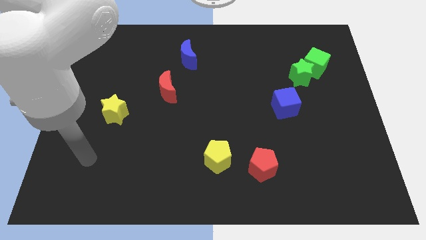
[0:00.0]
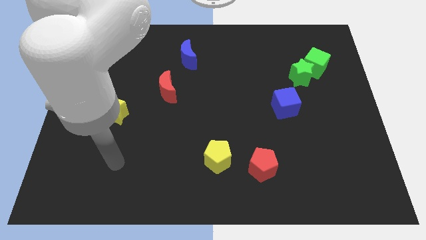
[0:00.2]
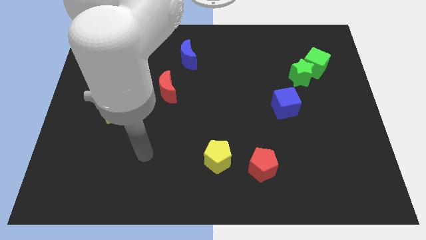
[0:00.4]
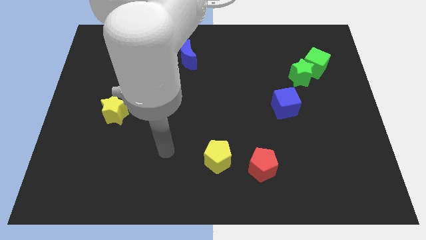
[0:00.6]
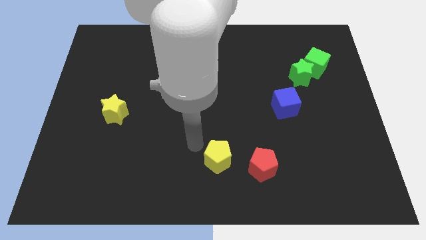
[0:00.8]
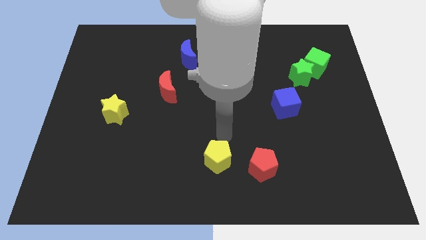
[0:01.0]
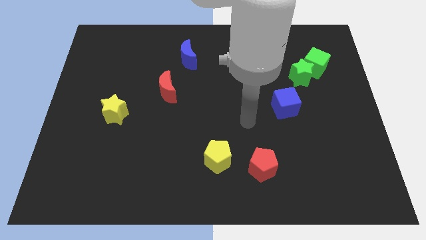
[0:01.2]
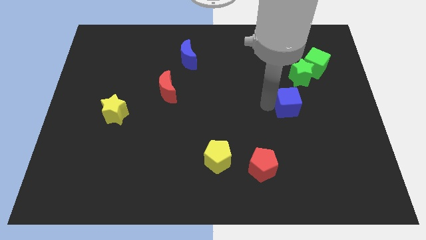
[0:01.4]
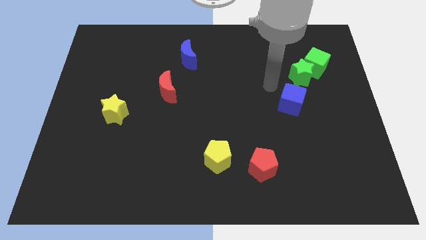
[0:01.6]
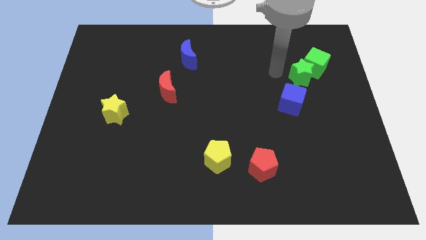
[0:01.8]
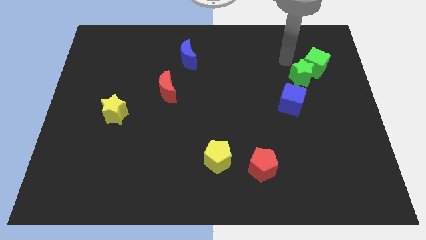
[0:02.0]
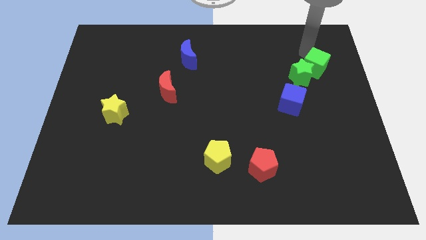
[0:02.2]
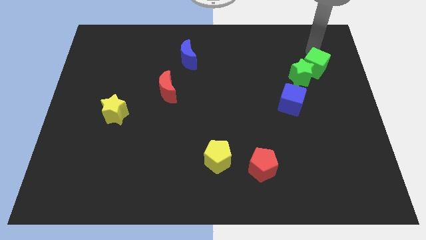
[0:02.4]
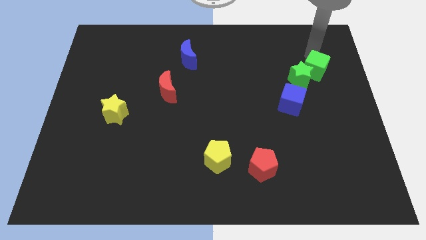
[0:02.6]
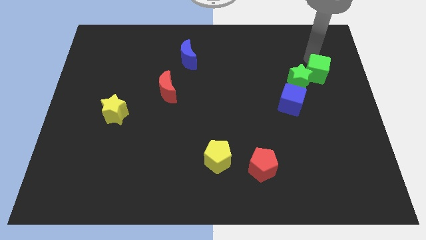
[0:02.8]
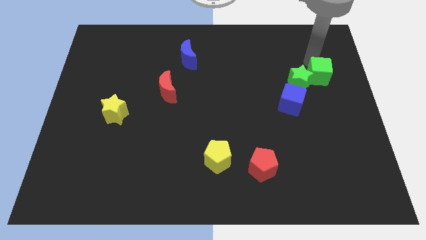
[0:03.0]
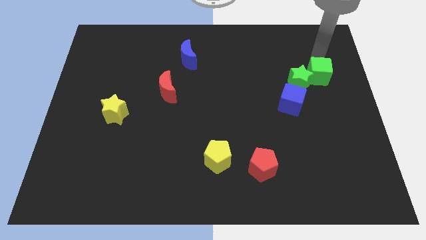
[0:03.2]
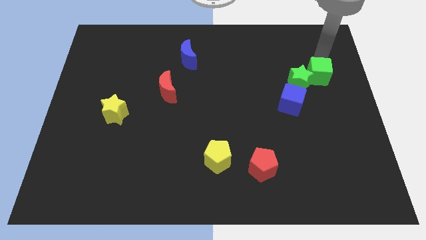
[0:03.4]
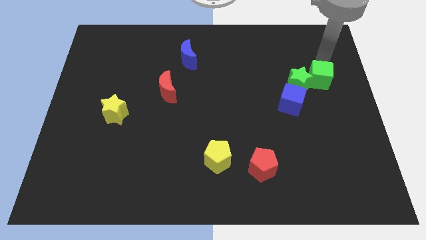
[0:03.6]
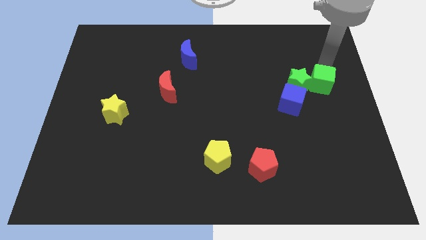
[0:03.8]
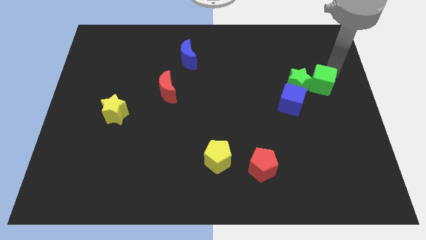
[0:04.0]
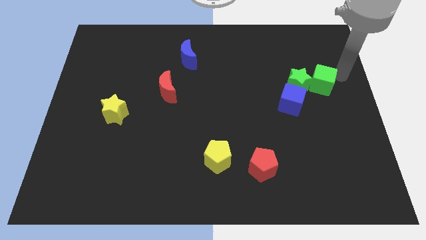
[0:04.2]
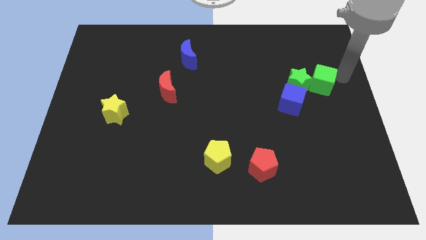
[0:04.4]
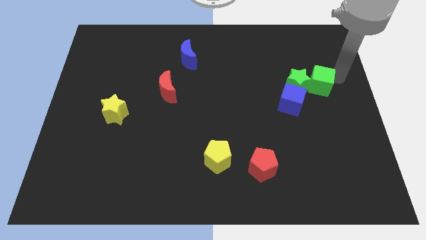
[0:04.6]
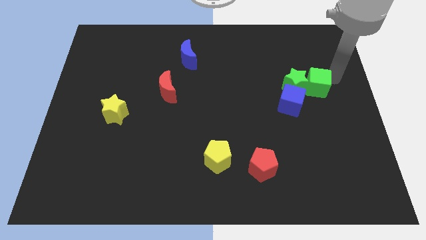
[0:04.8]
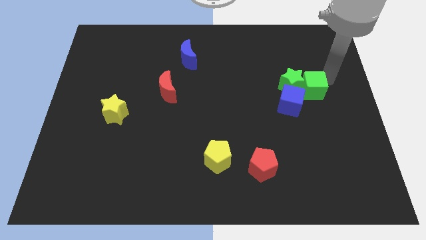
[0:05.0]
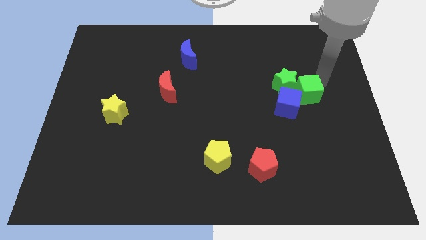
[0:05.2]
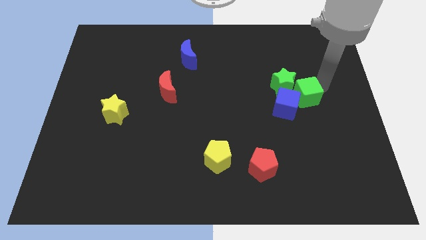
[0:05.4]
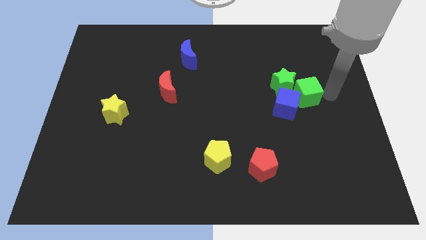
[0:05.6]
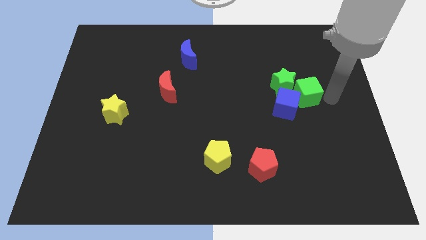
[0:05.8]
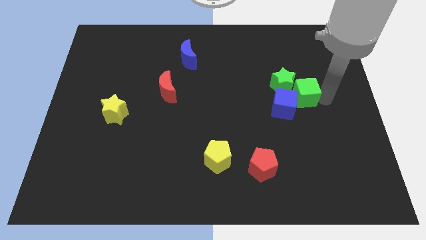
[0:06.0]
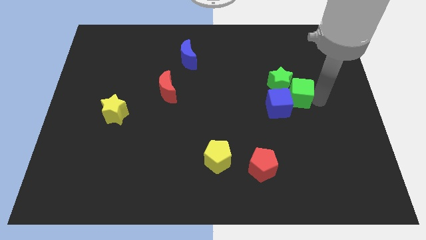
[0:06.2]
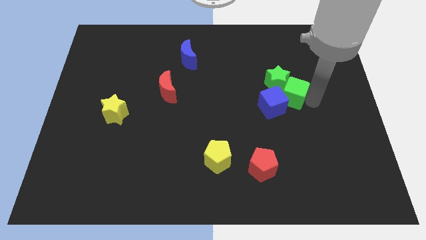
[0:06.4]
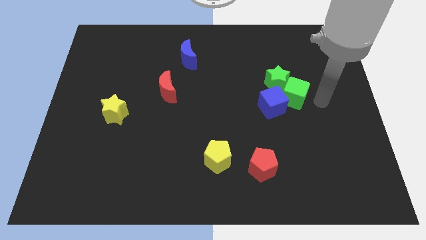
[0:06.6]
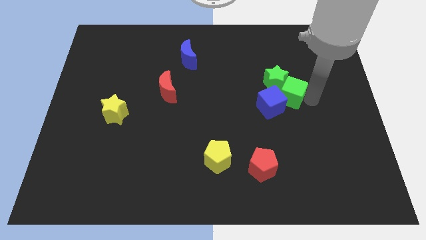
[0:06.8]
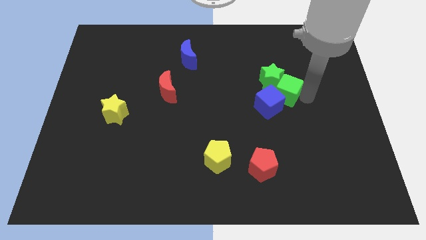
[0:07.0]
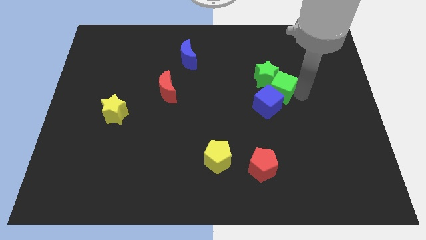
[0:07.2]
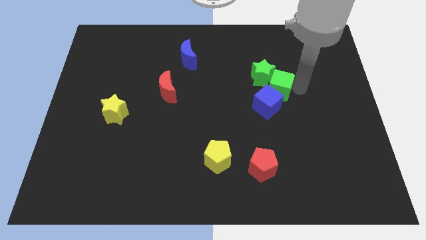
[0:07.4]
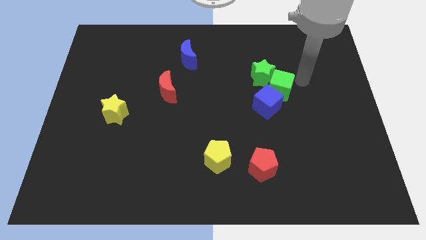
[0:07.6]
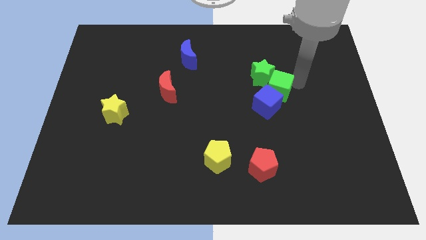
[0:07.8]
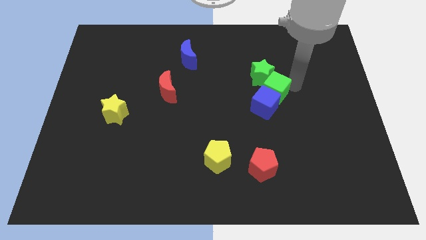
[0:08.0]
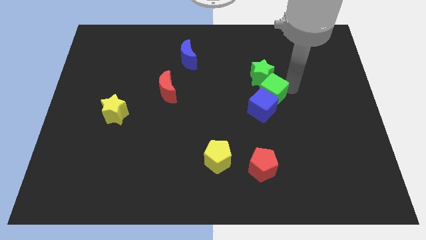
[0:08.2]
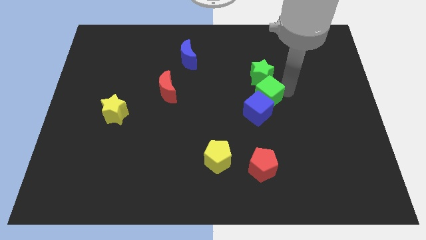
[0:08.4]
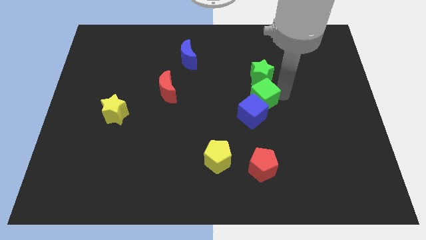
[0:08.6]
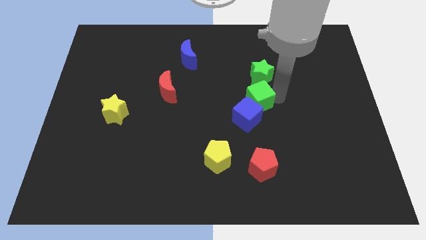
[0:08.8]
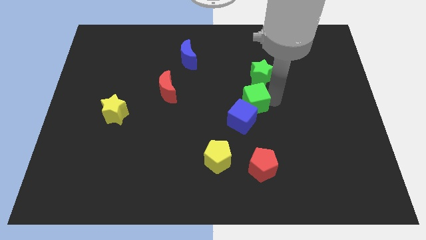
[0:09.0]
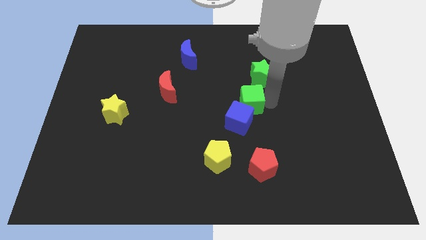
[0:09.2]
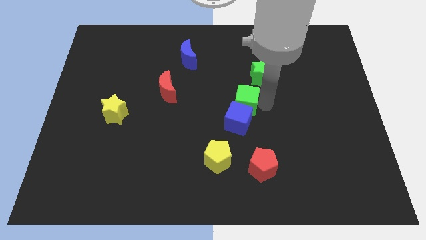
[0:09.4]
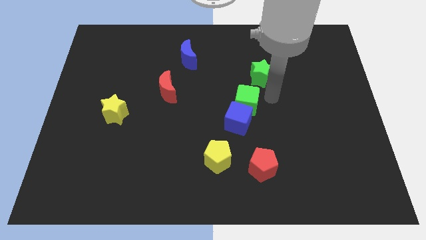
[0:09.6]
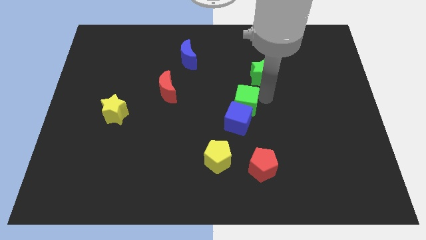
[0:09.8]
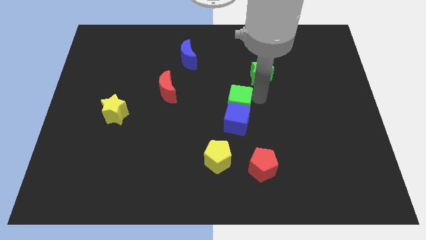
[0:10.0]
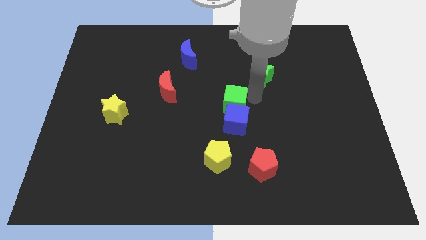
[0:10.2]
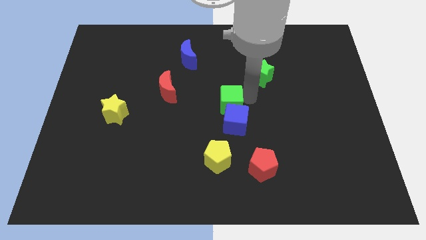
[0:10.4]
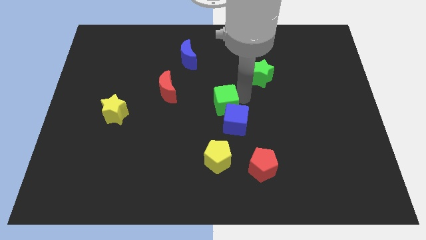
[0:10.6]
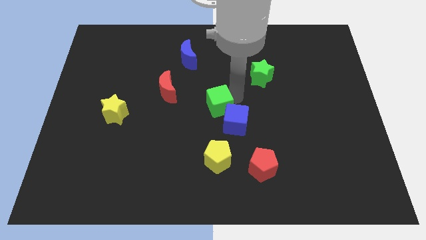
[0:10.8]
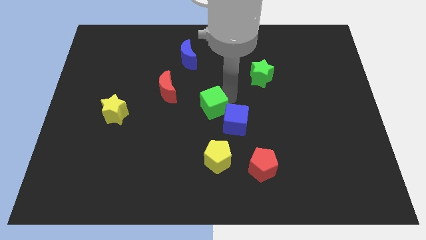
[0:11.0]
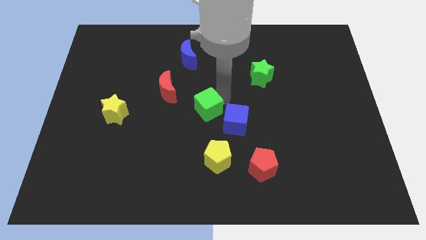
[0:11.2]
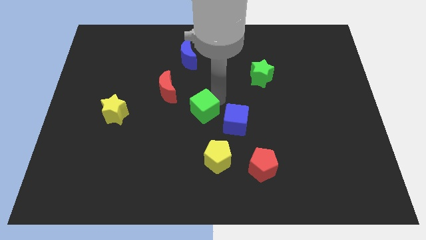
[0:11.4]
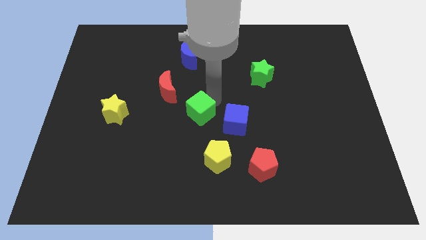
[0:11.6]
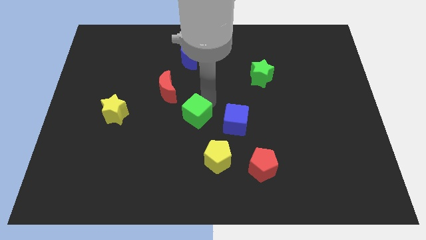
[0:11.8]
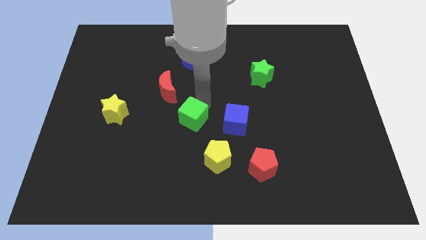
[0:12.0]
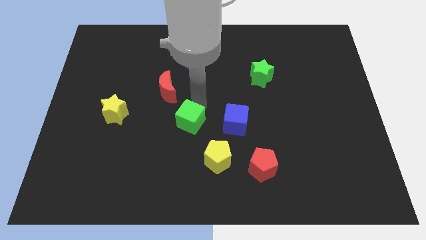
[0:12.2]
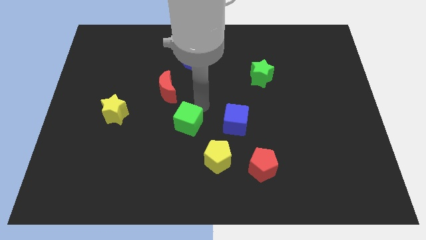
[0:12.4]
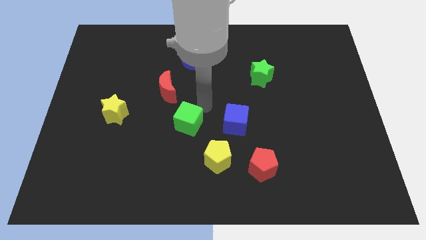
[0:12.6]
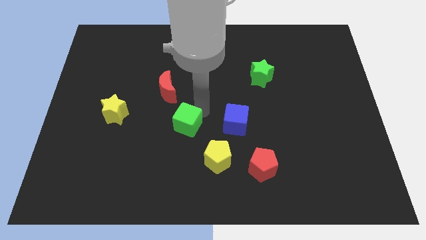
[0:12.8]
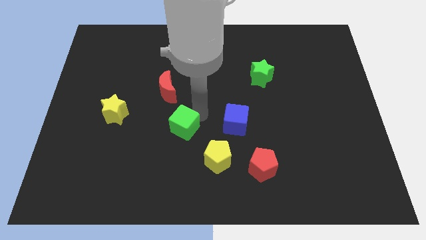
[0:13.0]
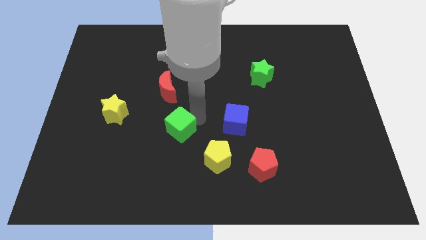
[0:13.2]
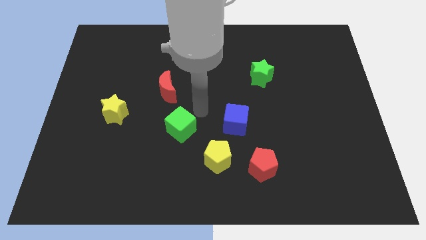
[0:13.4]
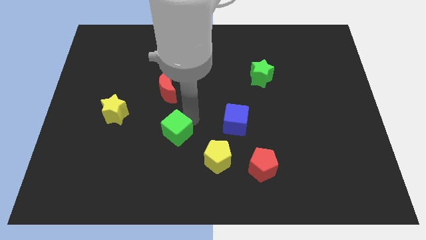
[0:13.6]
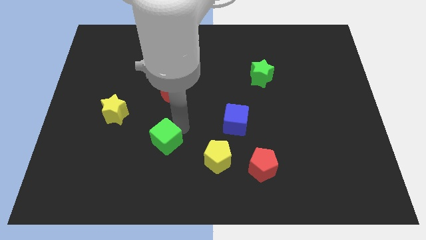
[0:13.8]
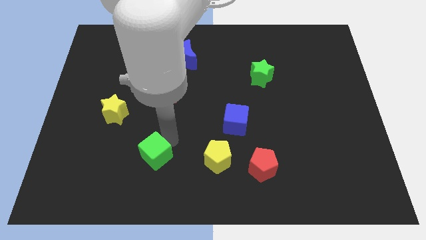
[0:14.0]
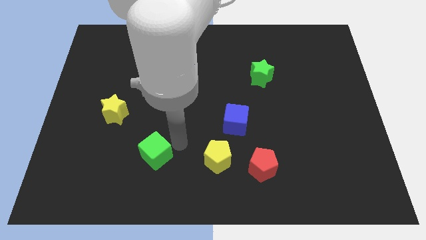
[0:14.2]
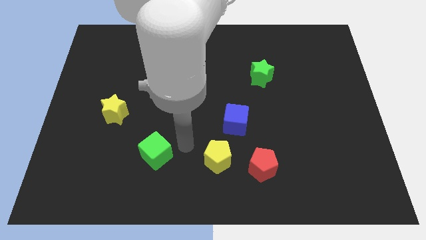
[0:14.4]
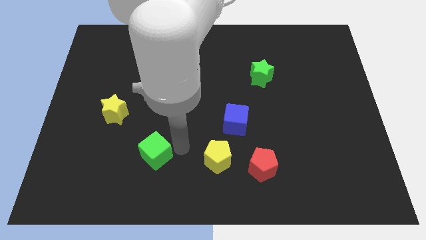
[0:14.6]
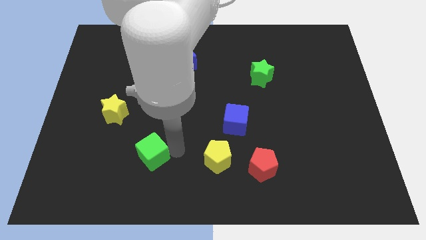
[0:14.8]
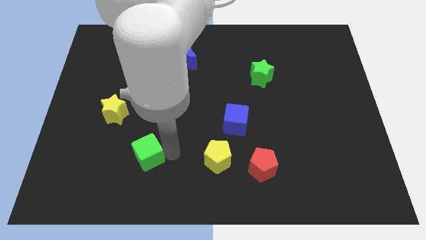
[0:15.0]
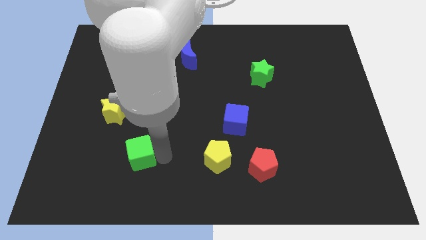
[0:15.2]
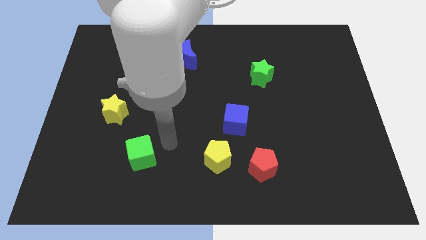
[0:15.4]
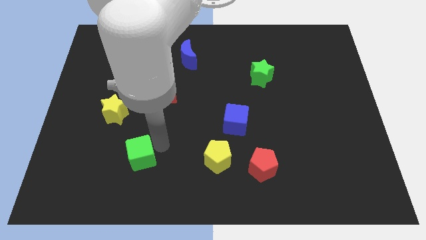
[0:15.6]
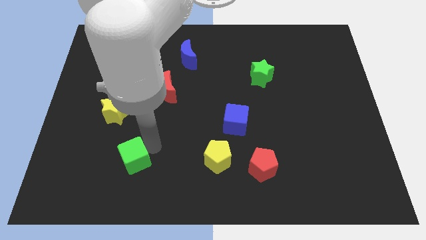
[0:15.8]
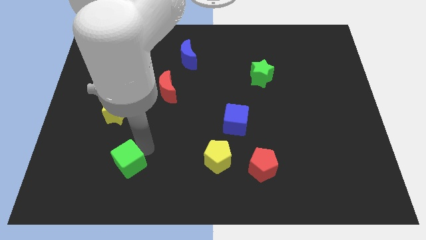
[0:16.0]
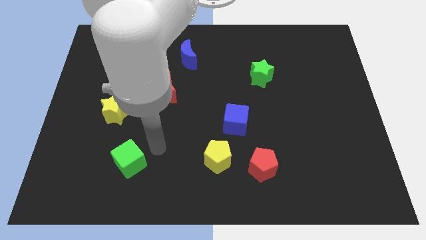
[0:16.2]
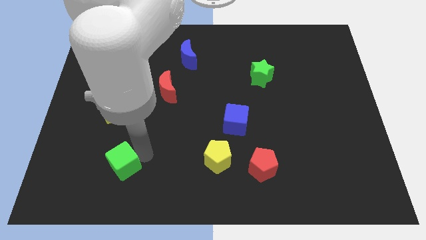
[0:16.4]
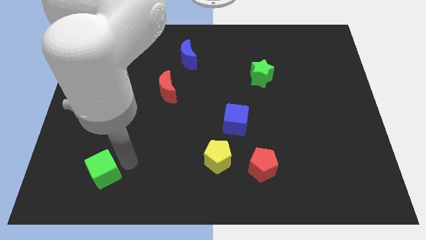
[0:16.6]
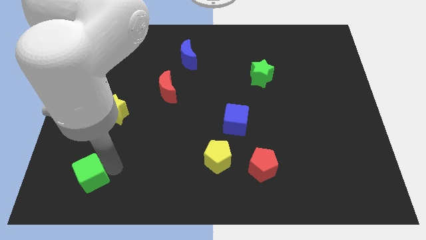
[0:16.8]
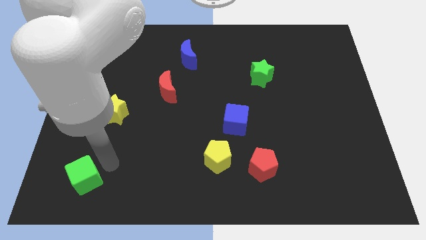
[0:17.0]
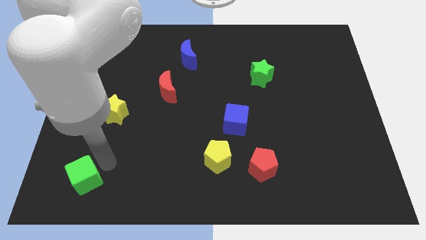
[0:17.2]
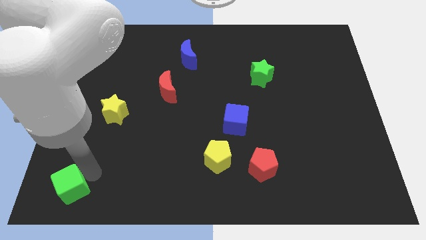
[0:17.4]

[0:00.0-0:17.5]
put the green cube to the bottom left of the board
